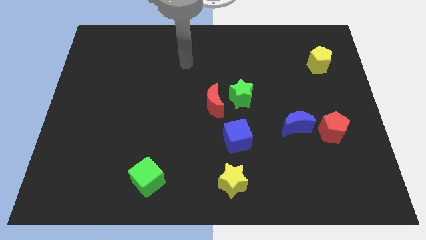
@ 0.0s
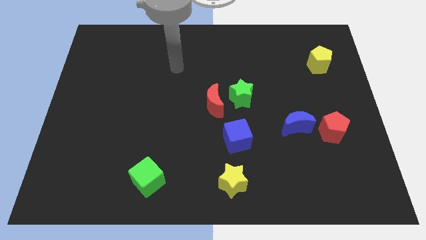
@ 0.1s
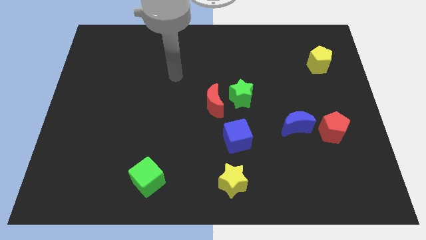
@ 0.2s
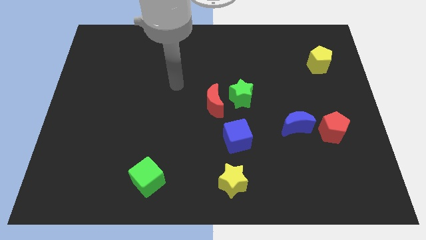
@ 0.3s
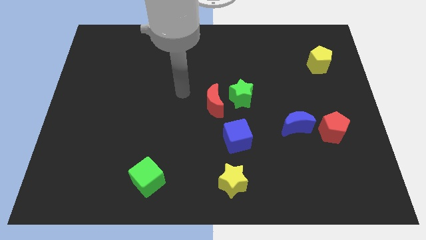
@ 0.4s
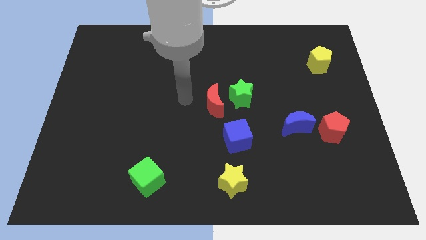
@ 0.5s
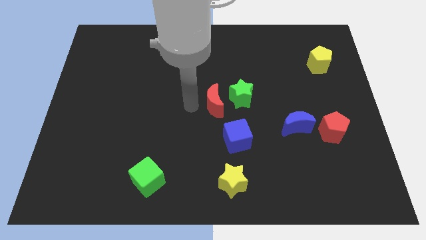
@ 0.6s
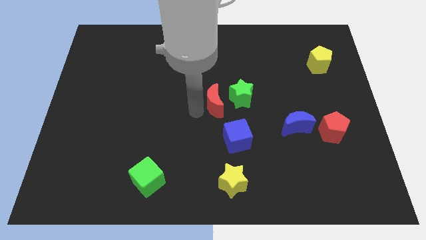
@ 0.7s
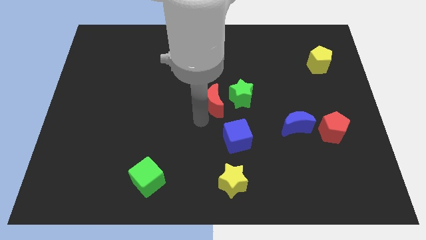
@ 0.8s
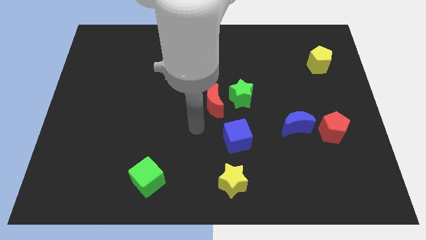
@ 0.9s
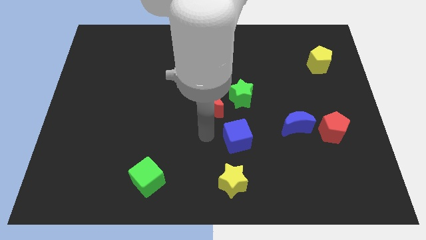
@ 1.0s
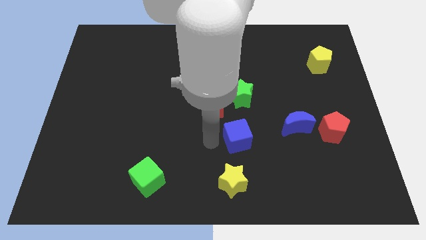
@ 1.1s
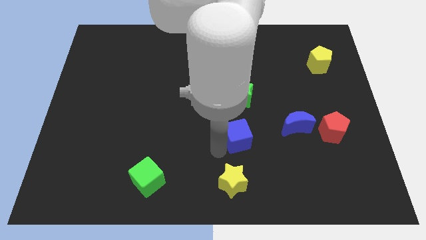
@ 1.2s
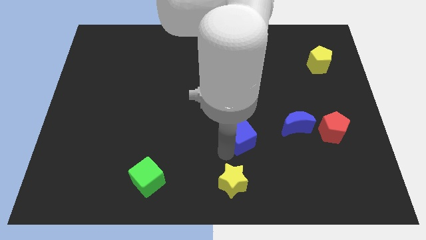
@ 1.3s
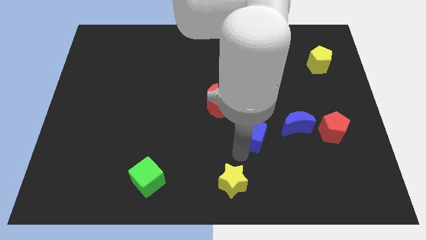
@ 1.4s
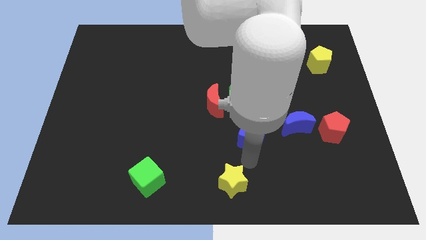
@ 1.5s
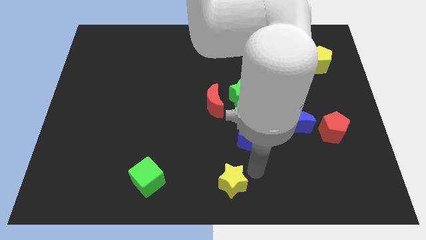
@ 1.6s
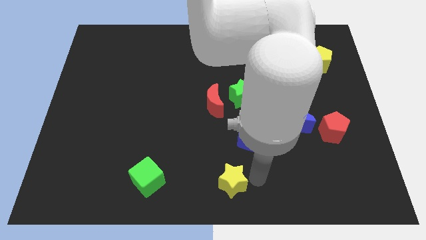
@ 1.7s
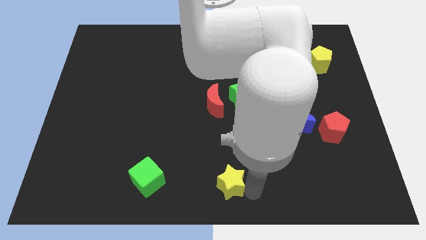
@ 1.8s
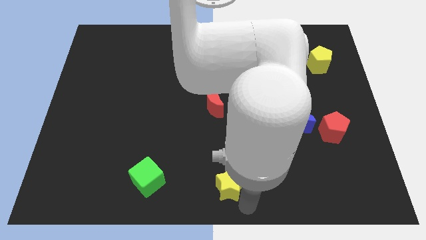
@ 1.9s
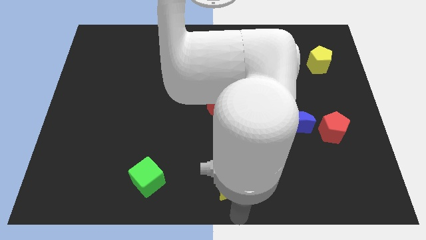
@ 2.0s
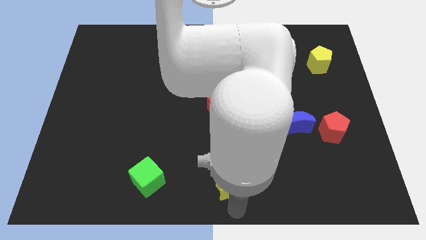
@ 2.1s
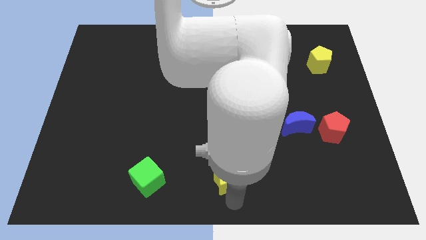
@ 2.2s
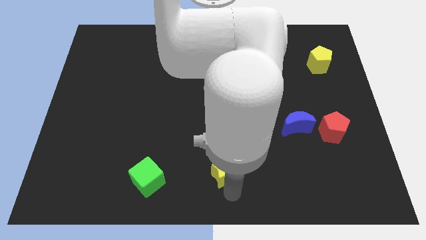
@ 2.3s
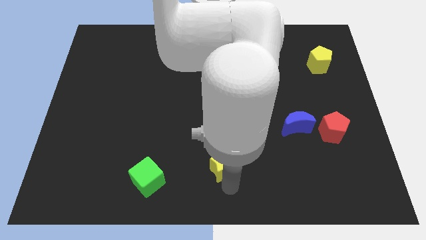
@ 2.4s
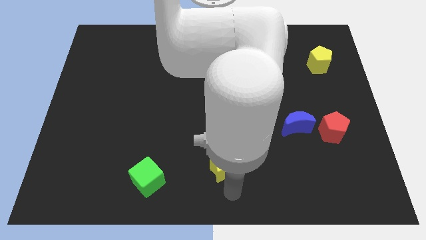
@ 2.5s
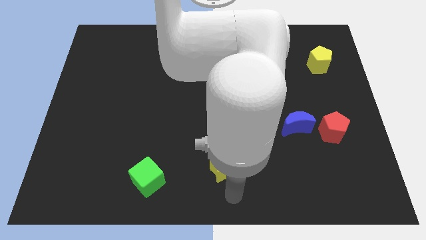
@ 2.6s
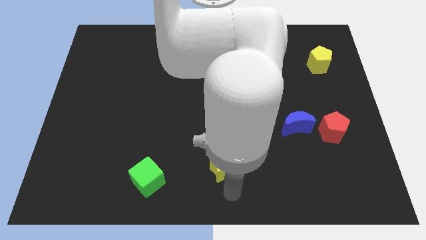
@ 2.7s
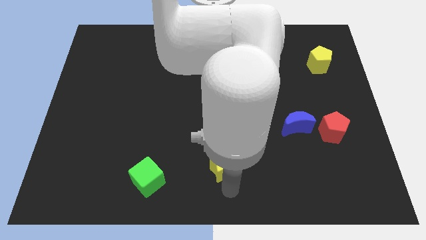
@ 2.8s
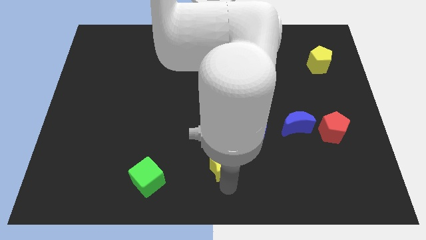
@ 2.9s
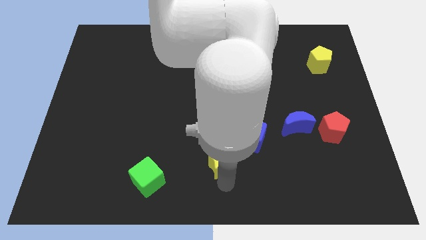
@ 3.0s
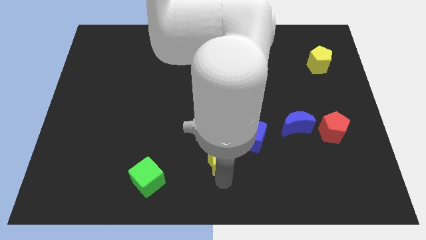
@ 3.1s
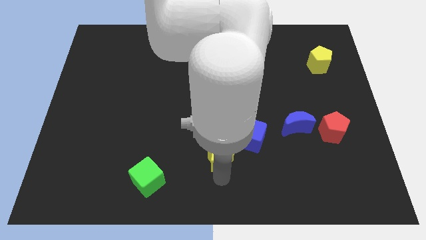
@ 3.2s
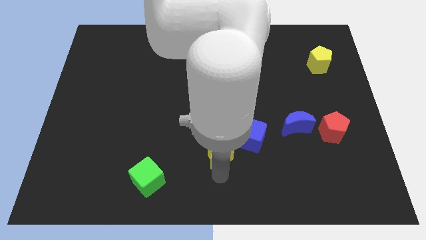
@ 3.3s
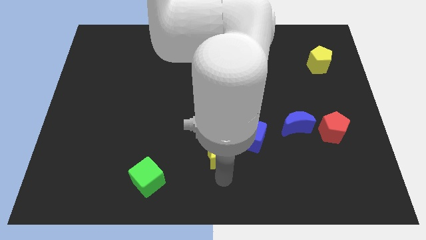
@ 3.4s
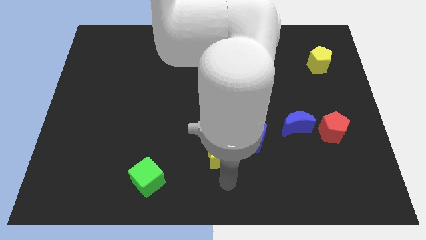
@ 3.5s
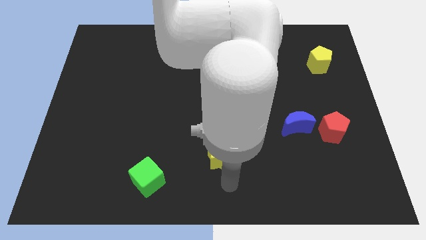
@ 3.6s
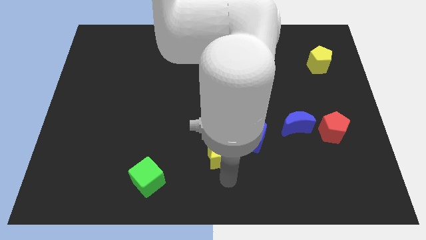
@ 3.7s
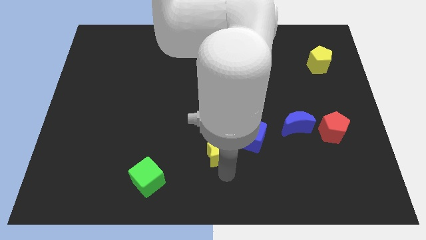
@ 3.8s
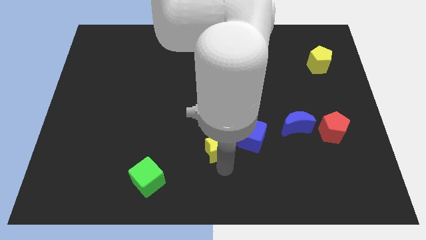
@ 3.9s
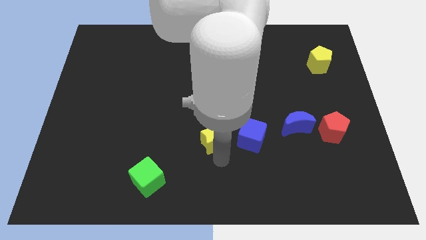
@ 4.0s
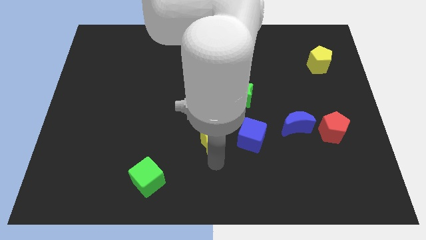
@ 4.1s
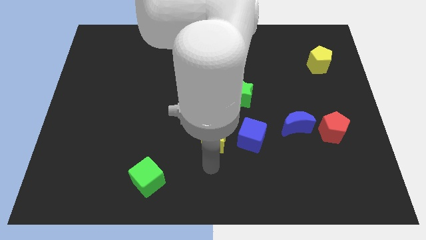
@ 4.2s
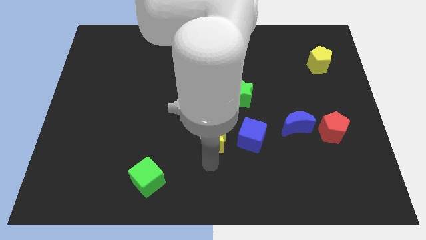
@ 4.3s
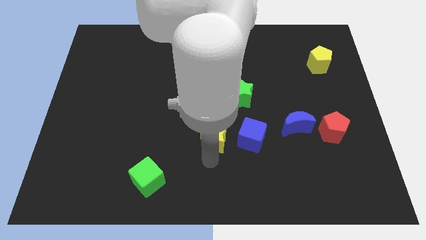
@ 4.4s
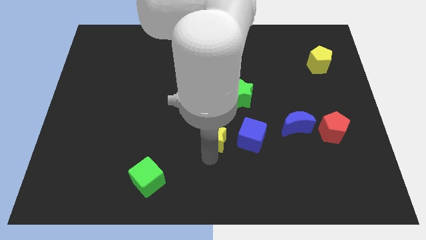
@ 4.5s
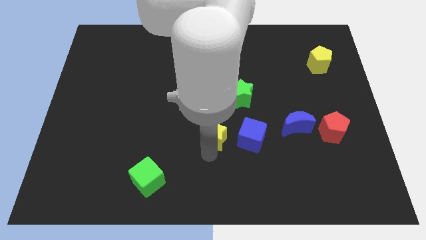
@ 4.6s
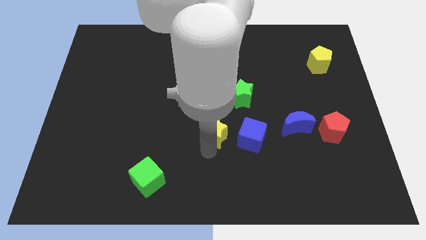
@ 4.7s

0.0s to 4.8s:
push the yellow star to the bottom left of the green star

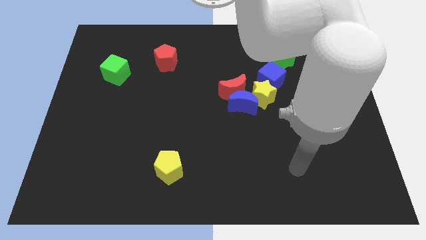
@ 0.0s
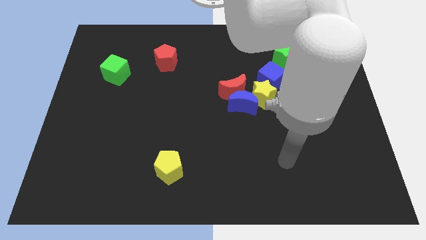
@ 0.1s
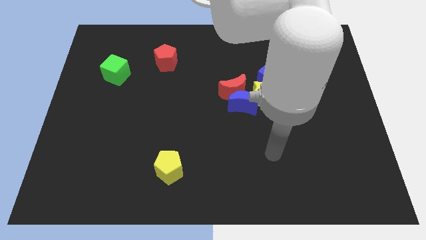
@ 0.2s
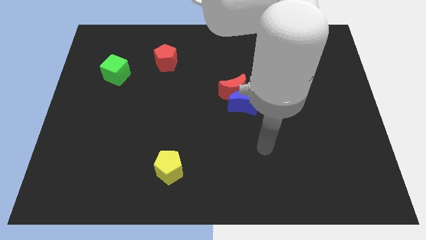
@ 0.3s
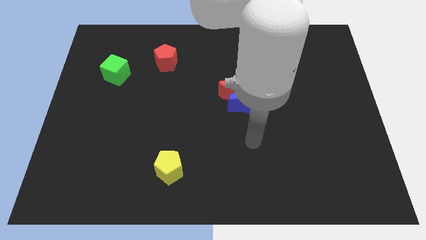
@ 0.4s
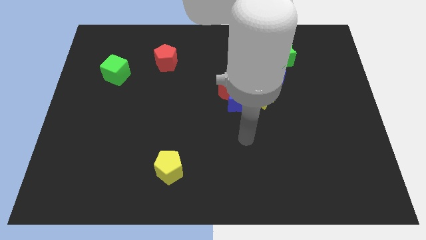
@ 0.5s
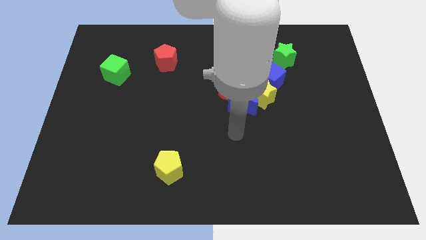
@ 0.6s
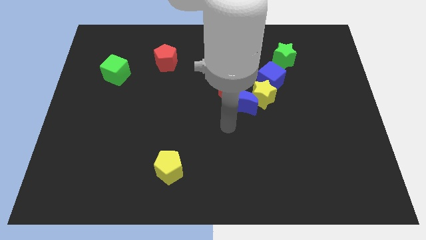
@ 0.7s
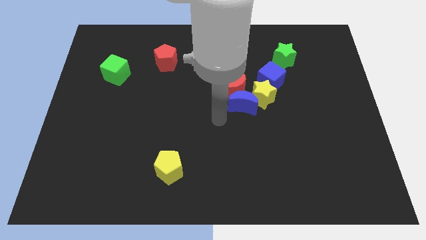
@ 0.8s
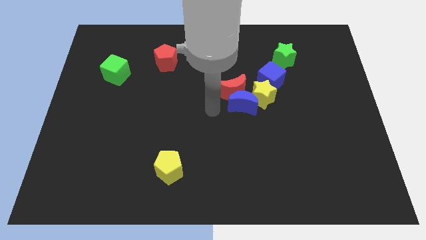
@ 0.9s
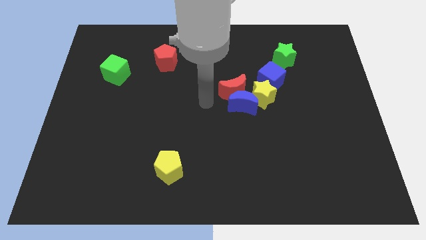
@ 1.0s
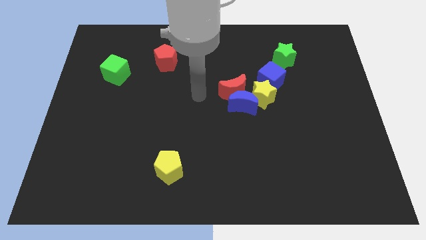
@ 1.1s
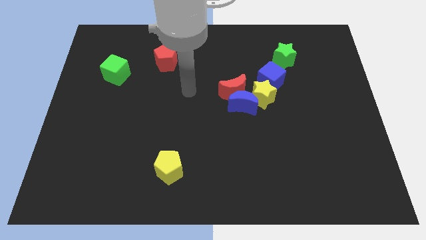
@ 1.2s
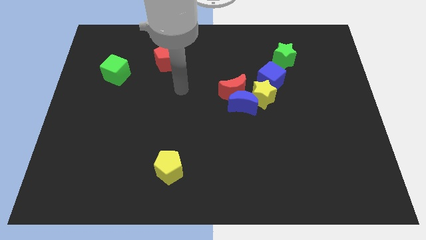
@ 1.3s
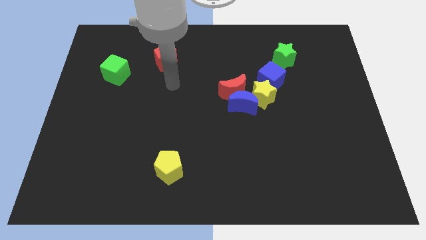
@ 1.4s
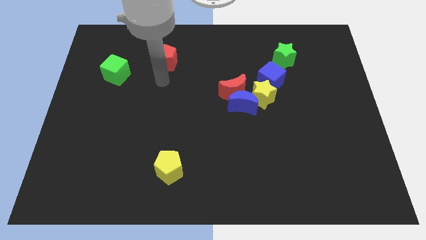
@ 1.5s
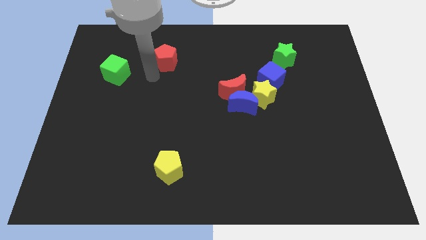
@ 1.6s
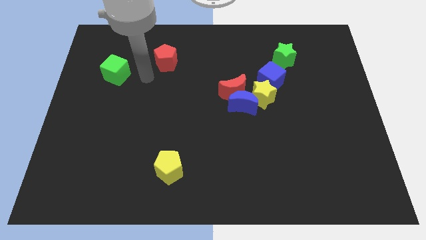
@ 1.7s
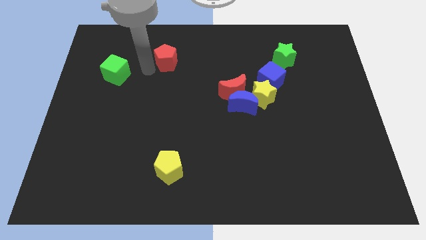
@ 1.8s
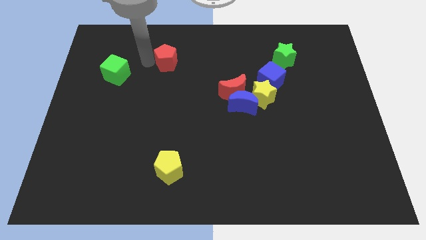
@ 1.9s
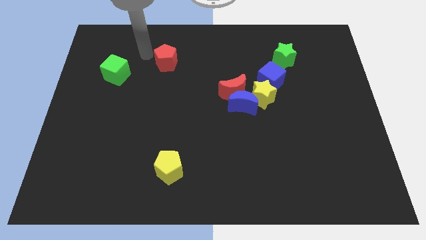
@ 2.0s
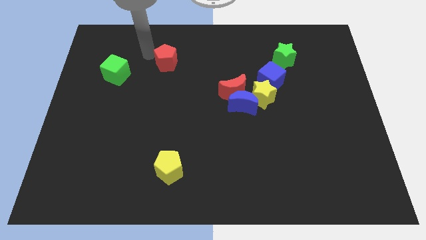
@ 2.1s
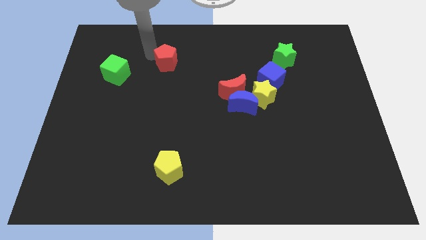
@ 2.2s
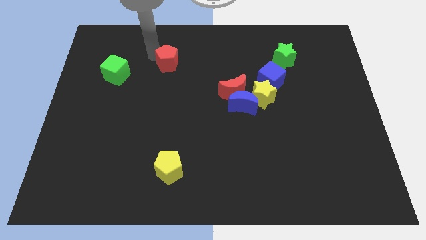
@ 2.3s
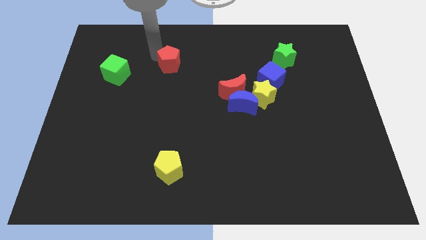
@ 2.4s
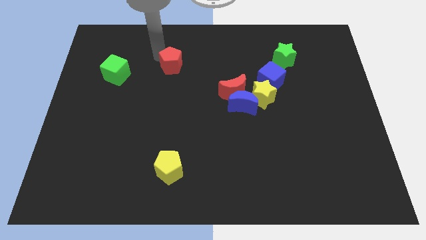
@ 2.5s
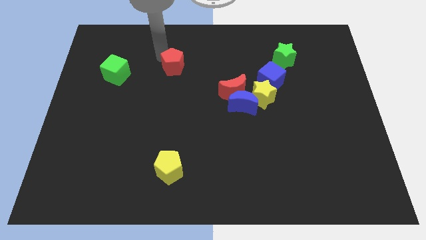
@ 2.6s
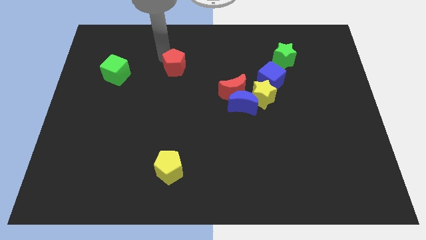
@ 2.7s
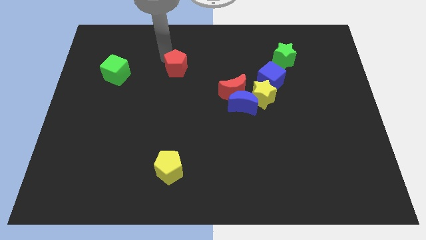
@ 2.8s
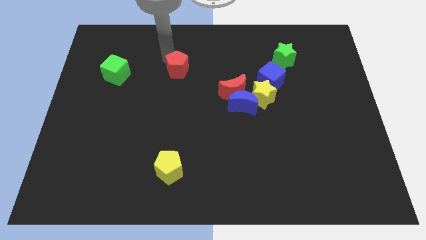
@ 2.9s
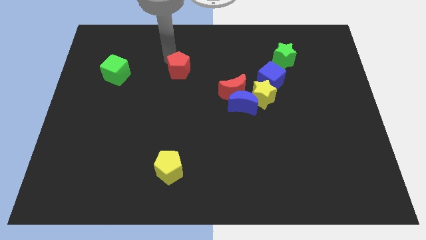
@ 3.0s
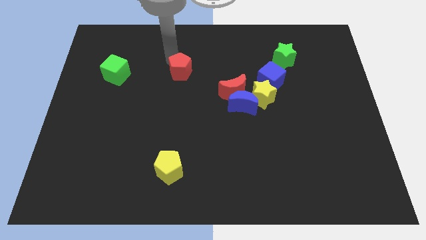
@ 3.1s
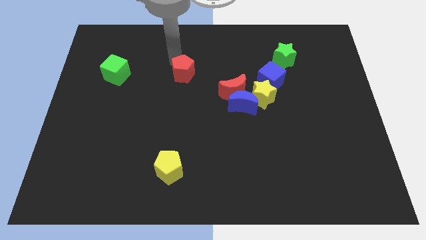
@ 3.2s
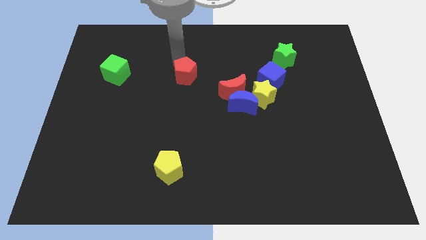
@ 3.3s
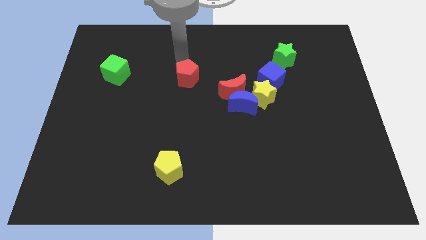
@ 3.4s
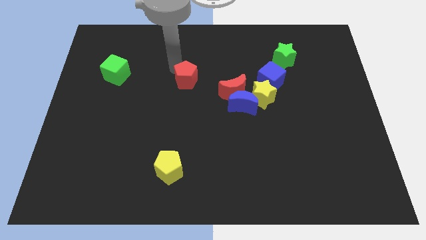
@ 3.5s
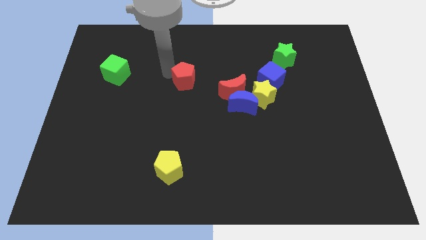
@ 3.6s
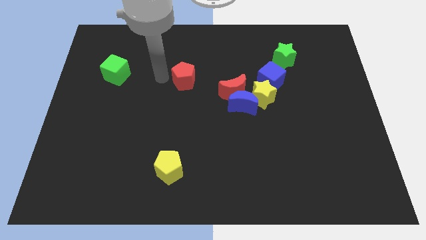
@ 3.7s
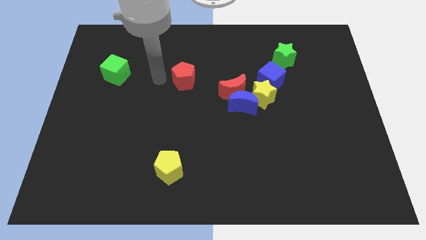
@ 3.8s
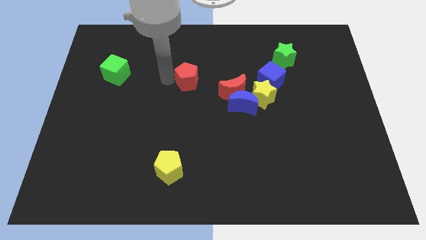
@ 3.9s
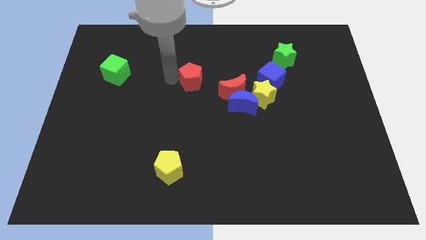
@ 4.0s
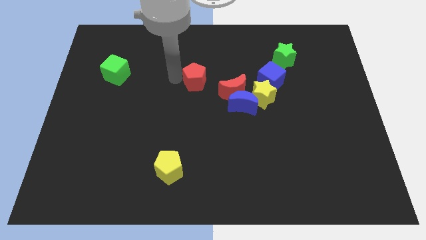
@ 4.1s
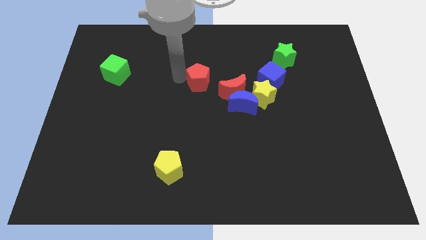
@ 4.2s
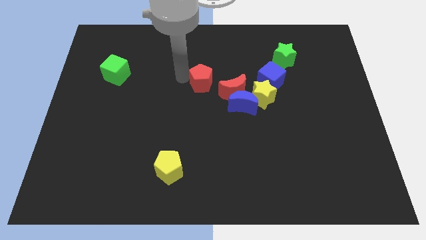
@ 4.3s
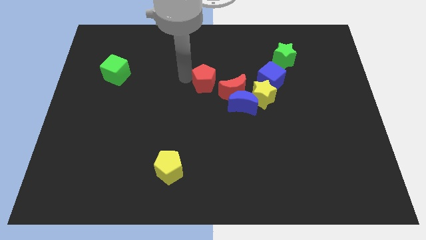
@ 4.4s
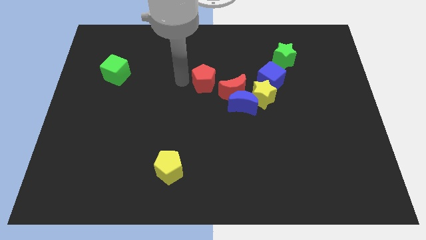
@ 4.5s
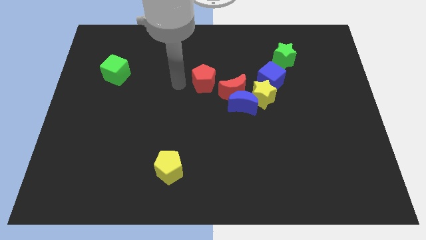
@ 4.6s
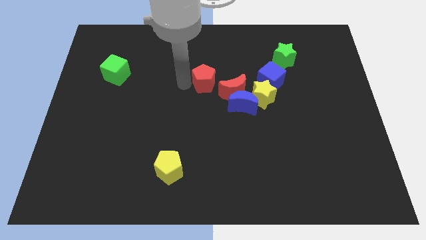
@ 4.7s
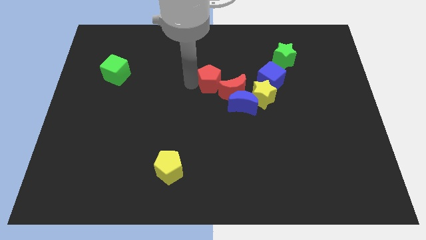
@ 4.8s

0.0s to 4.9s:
slide the red pentagon to the left side of the blue cube
